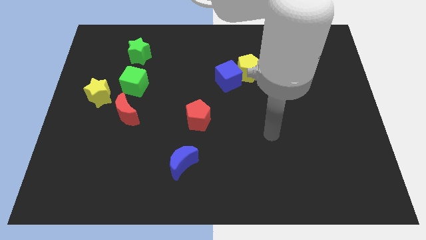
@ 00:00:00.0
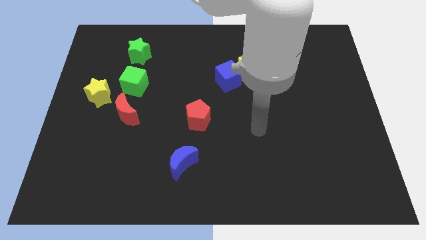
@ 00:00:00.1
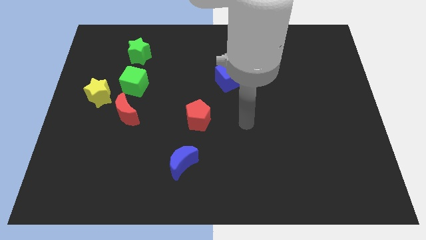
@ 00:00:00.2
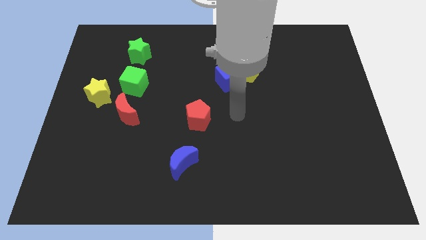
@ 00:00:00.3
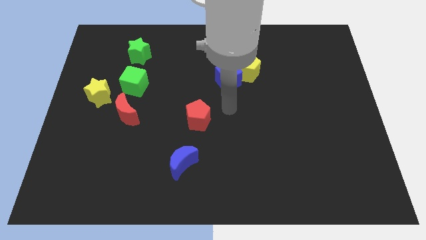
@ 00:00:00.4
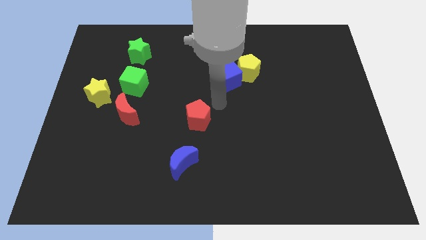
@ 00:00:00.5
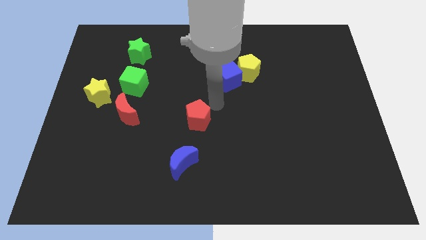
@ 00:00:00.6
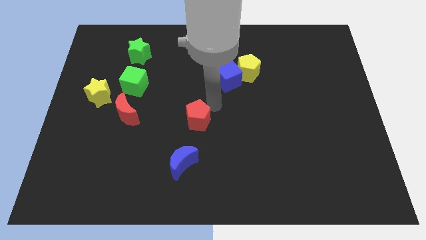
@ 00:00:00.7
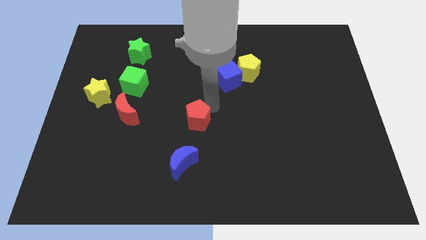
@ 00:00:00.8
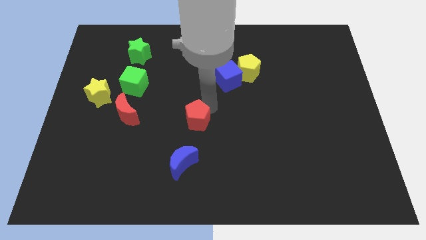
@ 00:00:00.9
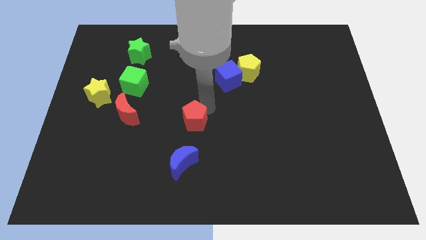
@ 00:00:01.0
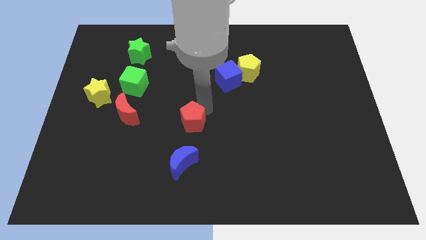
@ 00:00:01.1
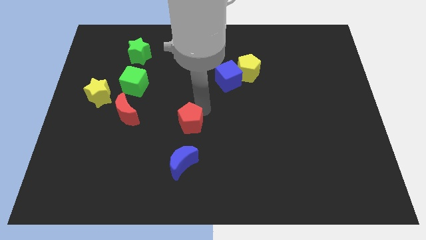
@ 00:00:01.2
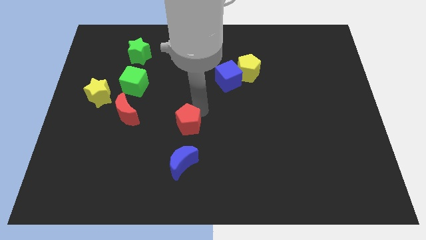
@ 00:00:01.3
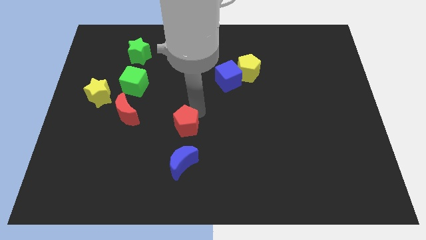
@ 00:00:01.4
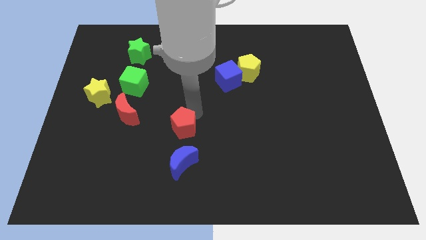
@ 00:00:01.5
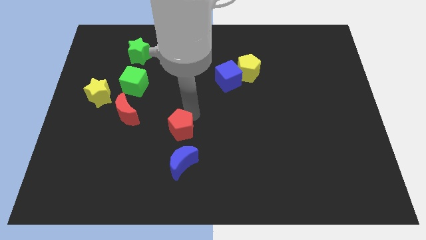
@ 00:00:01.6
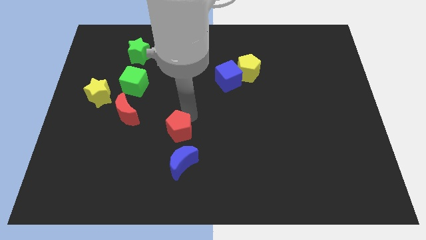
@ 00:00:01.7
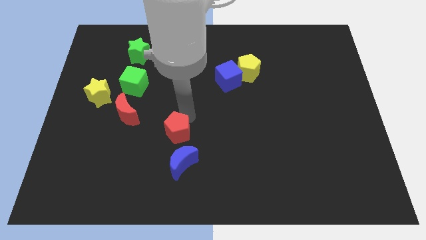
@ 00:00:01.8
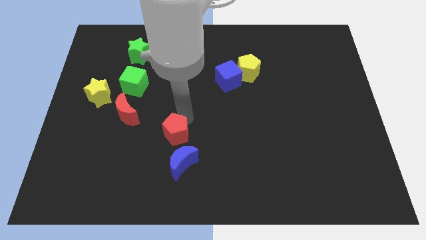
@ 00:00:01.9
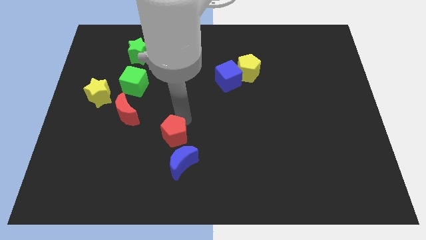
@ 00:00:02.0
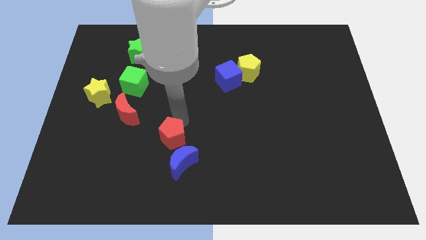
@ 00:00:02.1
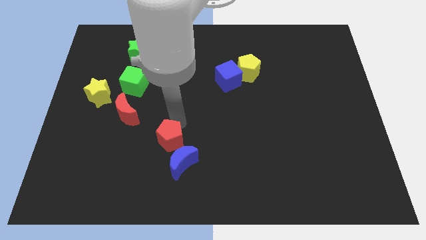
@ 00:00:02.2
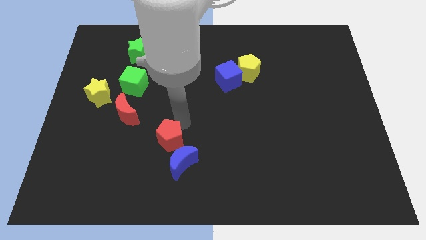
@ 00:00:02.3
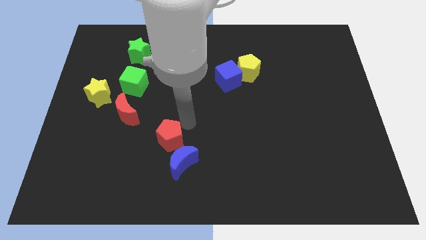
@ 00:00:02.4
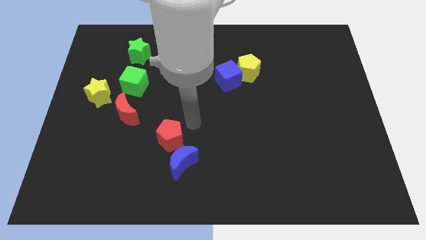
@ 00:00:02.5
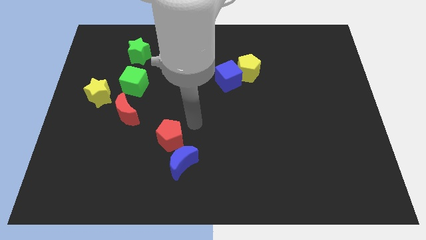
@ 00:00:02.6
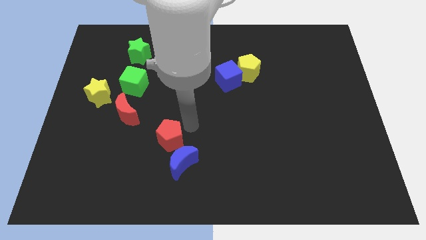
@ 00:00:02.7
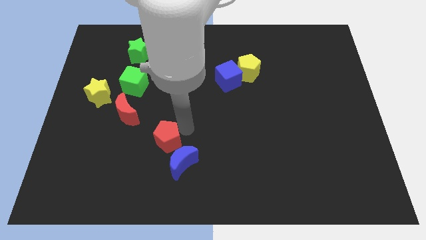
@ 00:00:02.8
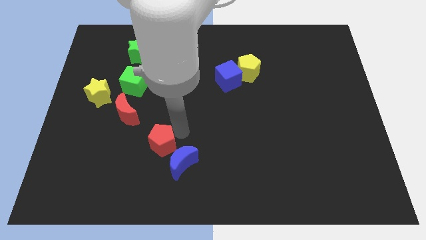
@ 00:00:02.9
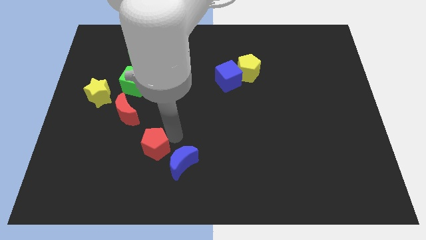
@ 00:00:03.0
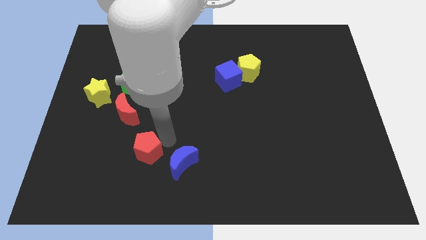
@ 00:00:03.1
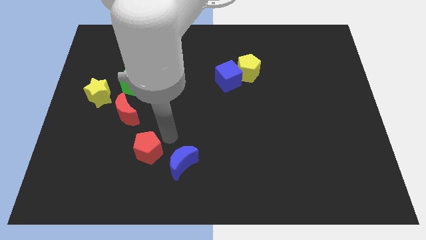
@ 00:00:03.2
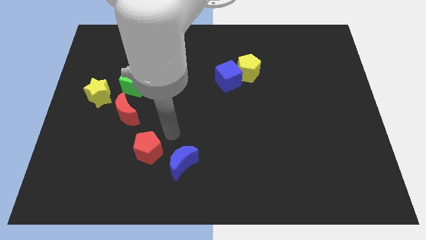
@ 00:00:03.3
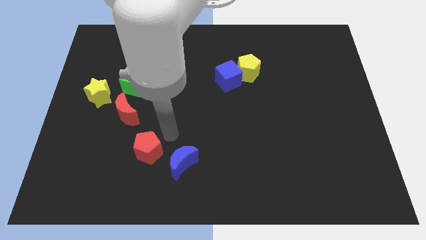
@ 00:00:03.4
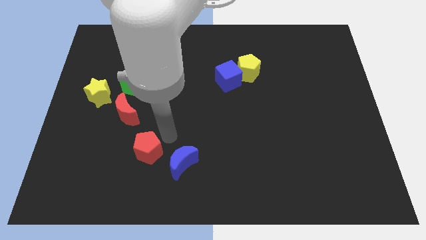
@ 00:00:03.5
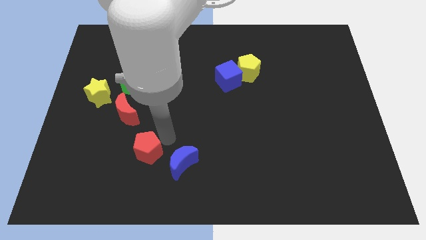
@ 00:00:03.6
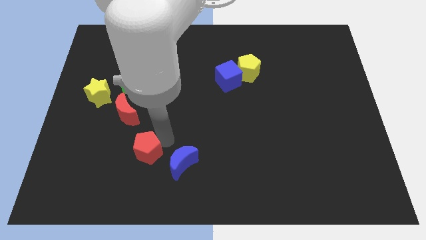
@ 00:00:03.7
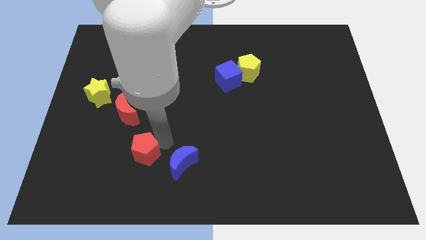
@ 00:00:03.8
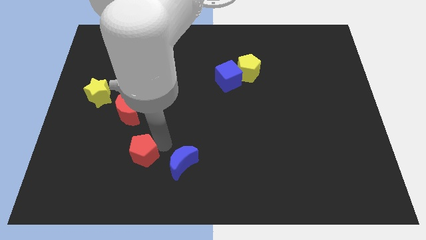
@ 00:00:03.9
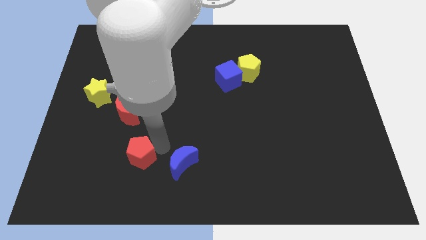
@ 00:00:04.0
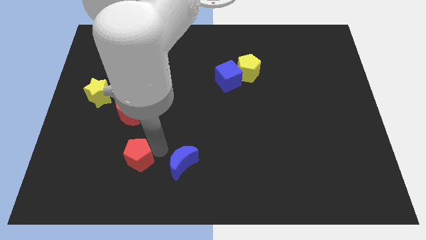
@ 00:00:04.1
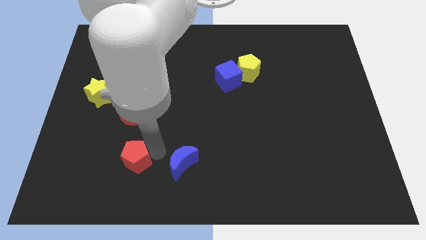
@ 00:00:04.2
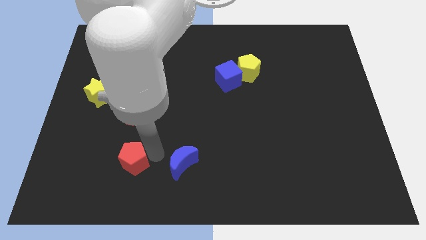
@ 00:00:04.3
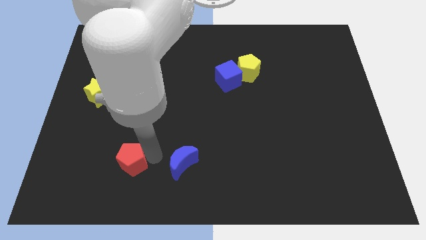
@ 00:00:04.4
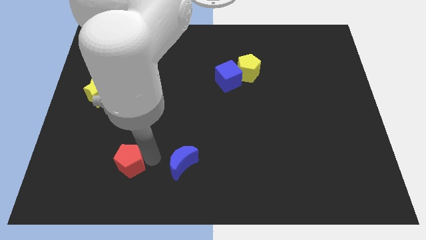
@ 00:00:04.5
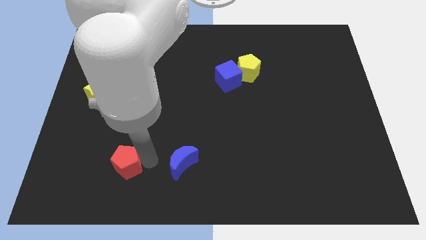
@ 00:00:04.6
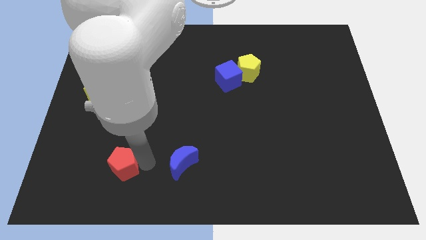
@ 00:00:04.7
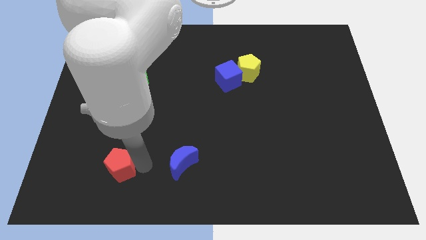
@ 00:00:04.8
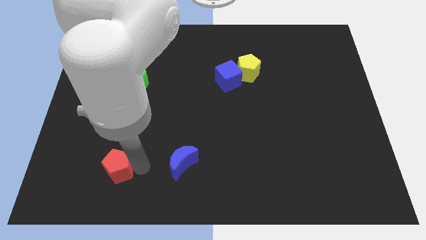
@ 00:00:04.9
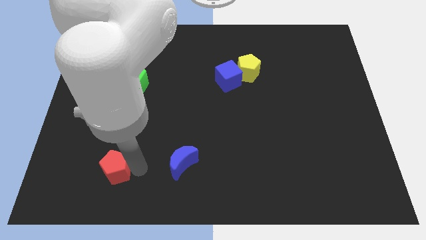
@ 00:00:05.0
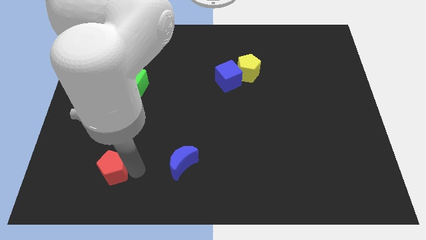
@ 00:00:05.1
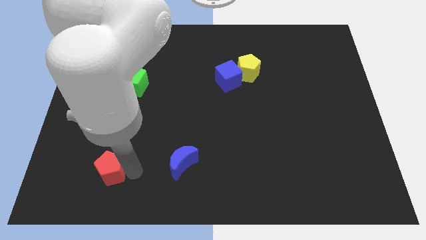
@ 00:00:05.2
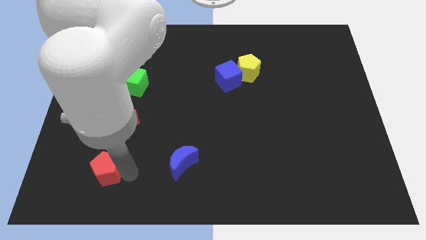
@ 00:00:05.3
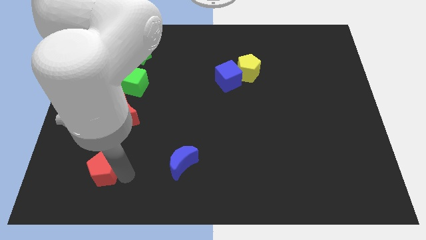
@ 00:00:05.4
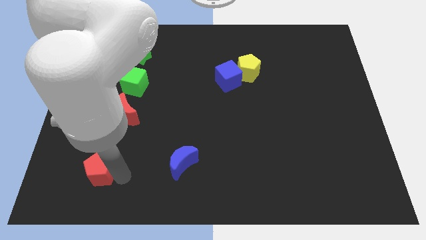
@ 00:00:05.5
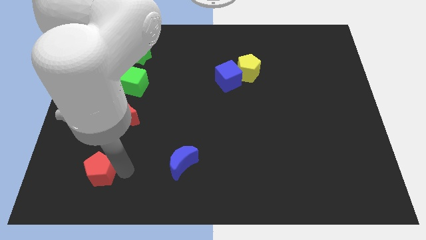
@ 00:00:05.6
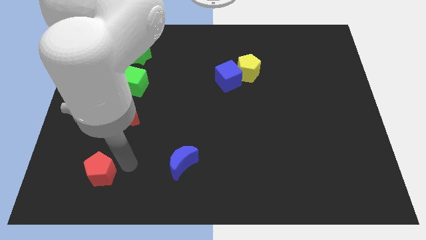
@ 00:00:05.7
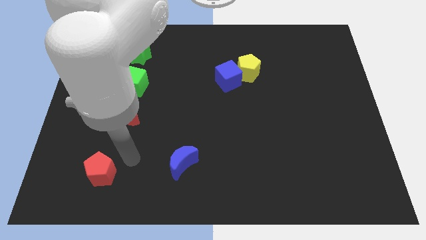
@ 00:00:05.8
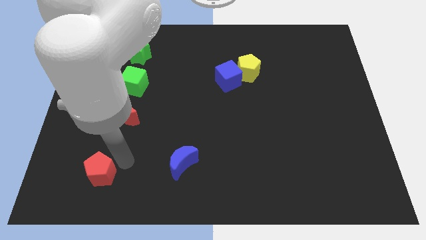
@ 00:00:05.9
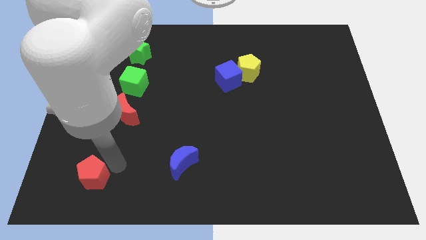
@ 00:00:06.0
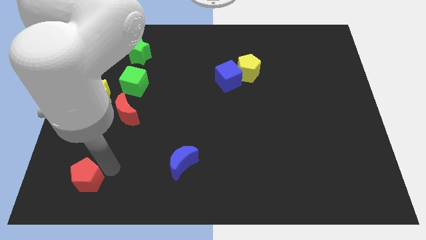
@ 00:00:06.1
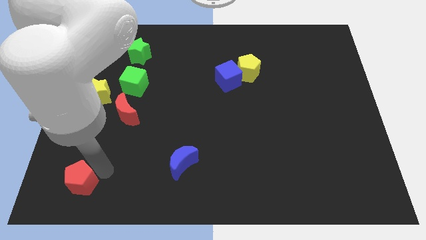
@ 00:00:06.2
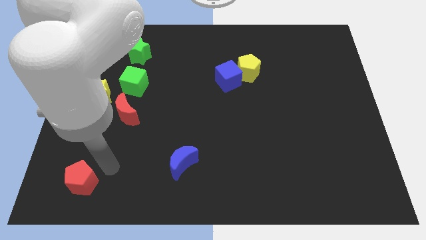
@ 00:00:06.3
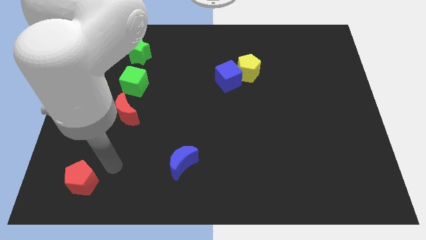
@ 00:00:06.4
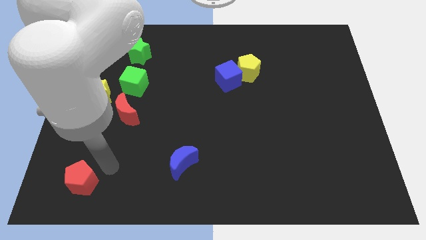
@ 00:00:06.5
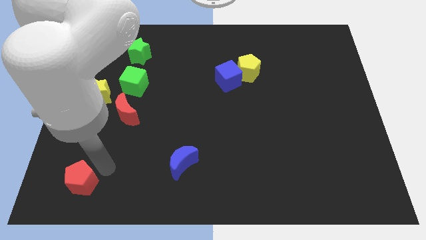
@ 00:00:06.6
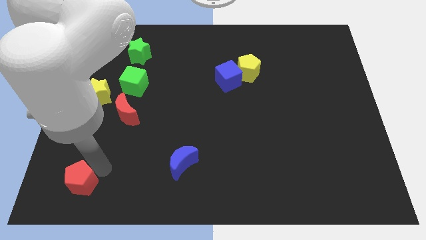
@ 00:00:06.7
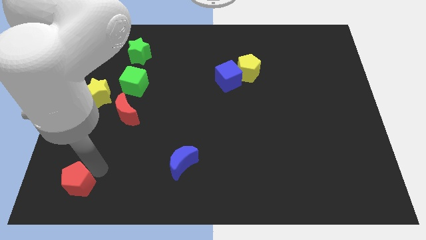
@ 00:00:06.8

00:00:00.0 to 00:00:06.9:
move the red pentagon to the lower left corner
